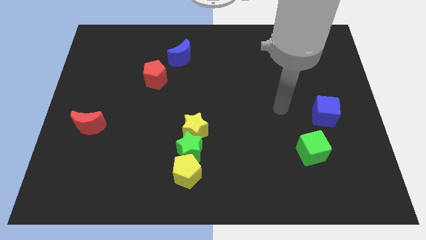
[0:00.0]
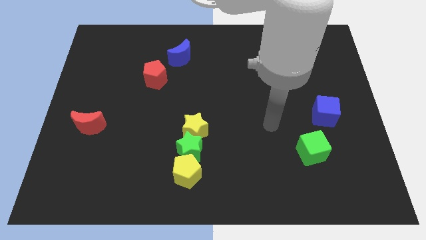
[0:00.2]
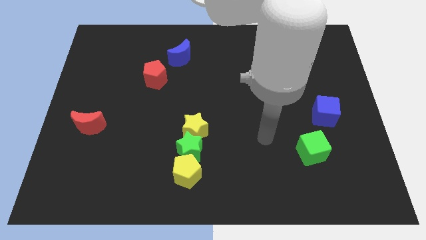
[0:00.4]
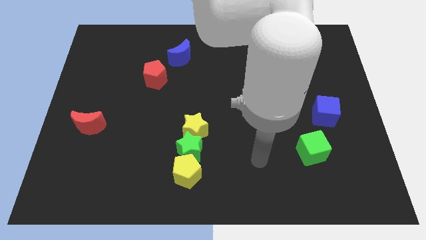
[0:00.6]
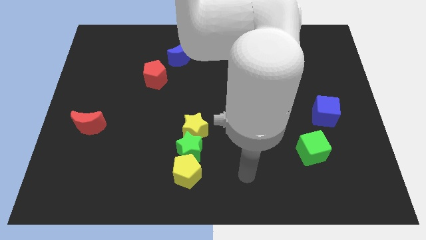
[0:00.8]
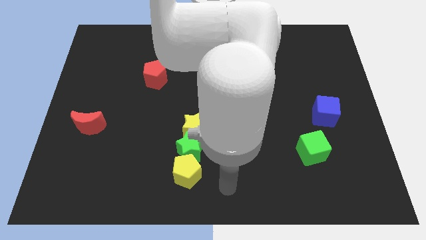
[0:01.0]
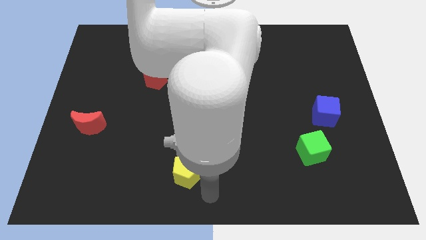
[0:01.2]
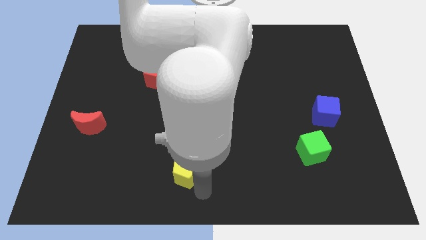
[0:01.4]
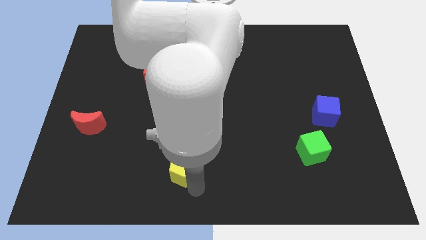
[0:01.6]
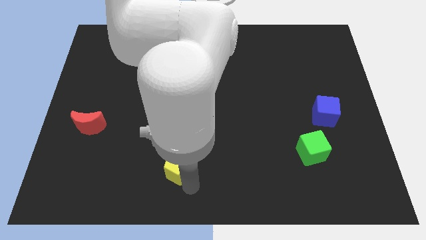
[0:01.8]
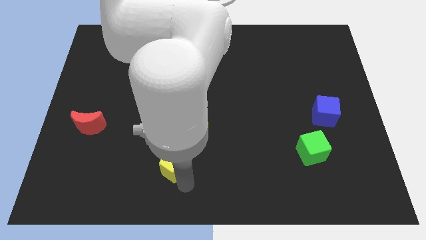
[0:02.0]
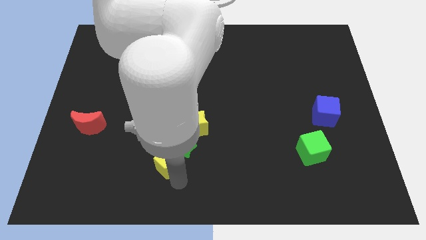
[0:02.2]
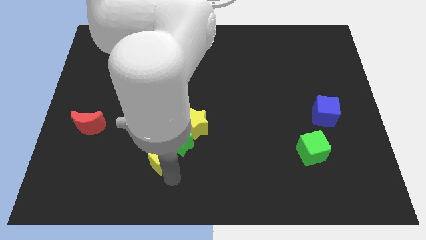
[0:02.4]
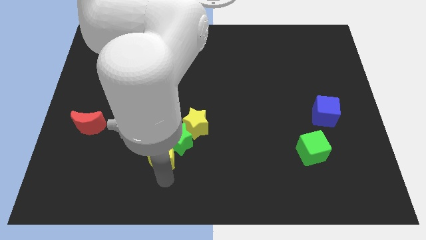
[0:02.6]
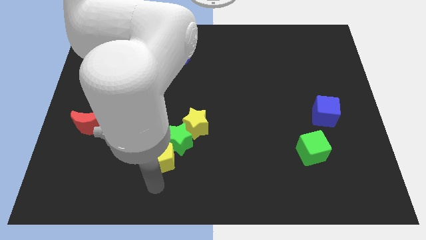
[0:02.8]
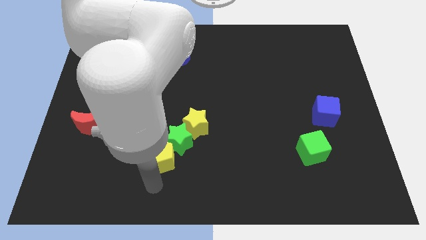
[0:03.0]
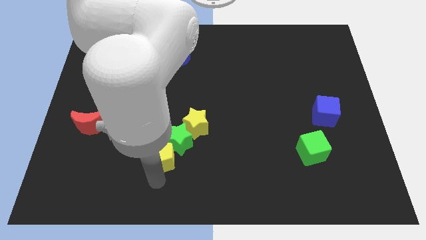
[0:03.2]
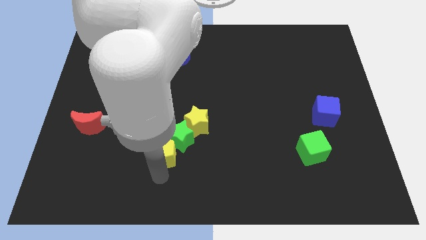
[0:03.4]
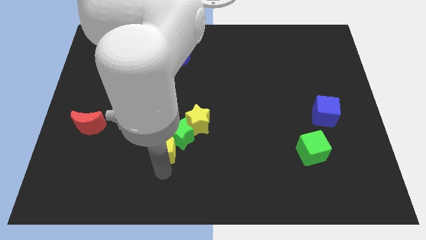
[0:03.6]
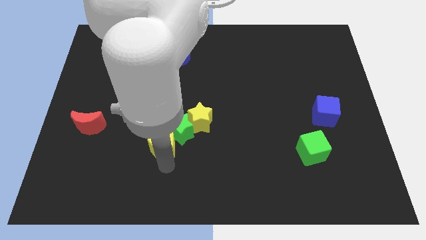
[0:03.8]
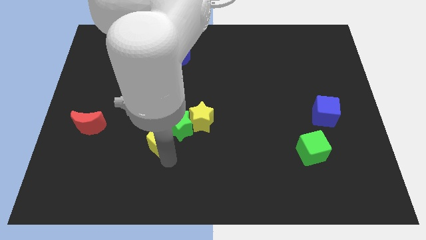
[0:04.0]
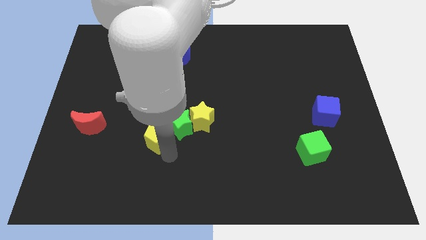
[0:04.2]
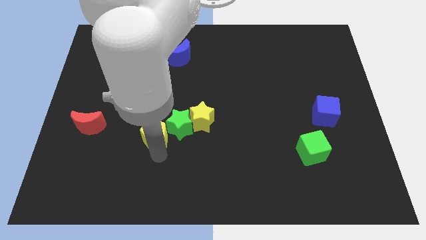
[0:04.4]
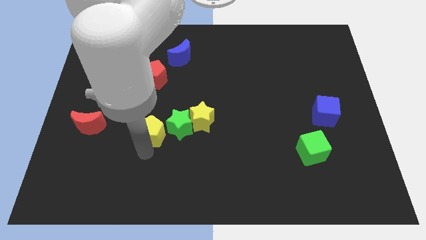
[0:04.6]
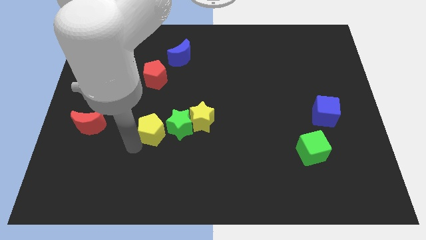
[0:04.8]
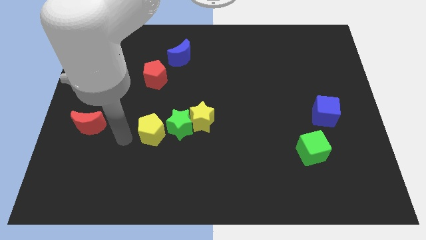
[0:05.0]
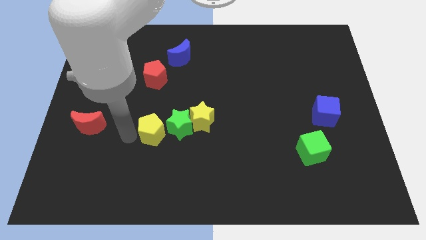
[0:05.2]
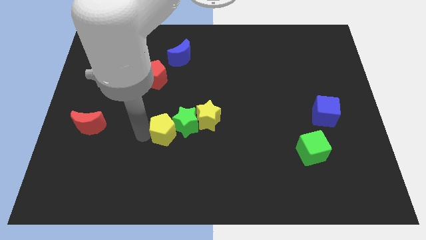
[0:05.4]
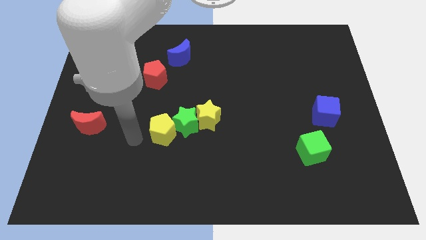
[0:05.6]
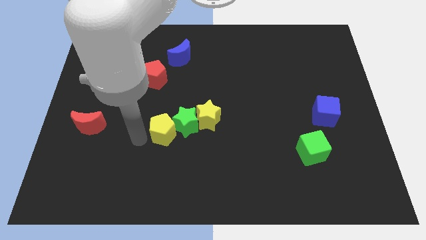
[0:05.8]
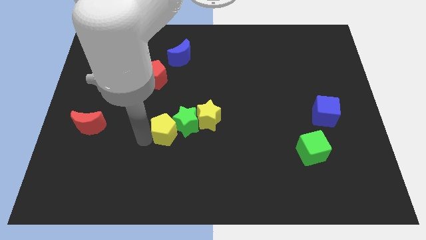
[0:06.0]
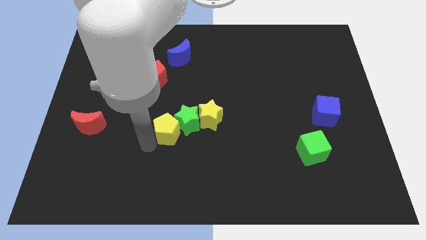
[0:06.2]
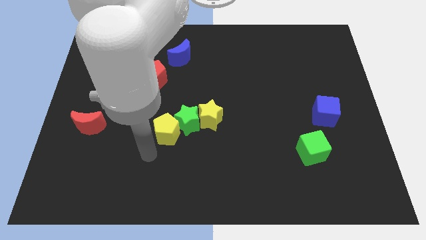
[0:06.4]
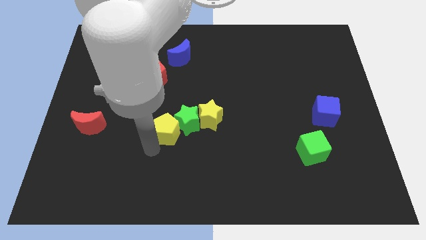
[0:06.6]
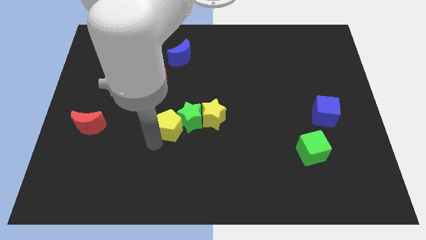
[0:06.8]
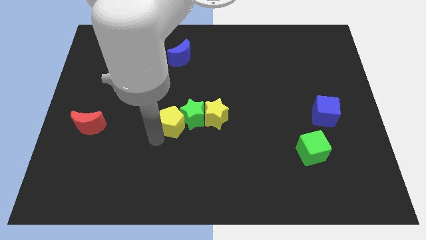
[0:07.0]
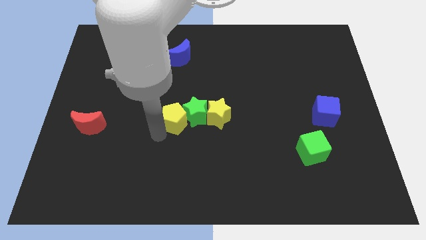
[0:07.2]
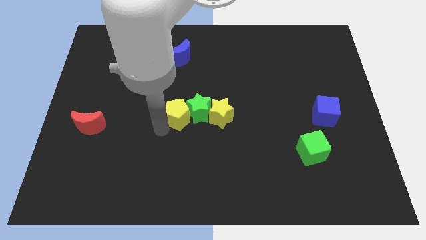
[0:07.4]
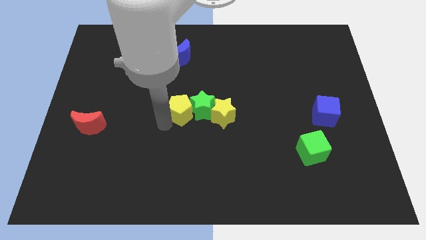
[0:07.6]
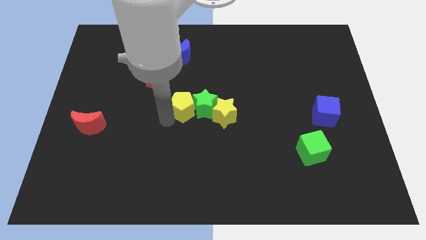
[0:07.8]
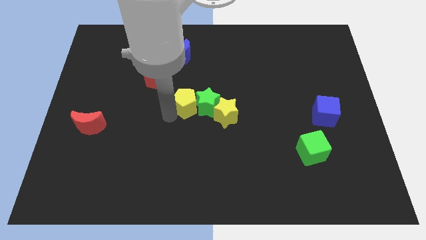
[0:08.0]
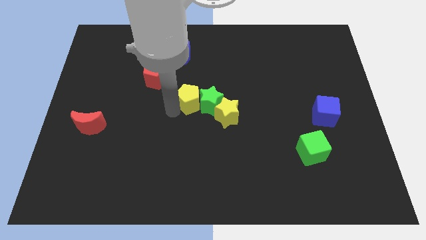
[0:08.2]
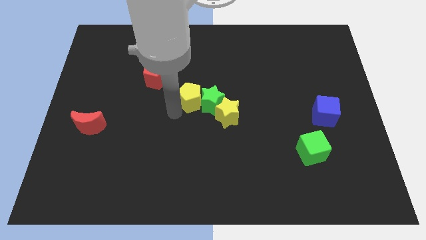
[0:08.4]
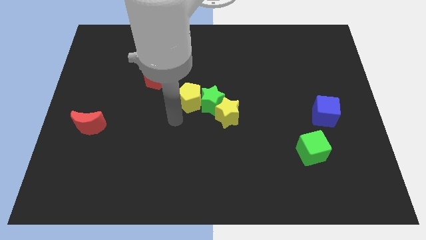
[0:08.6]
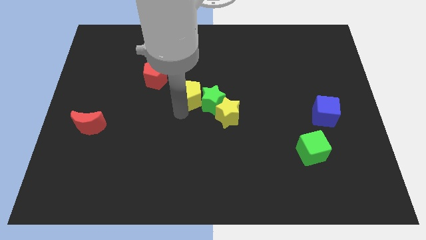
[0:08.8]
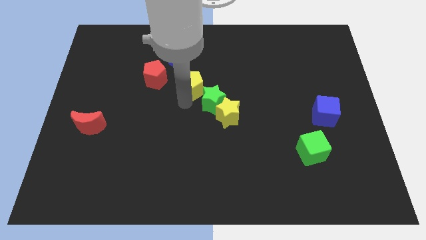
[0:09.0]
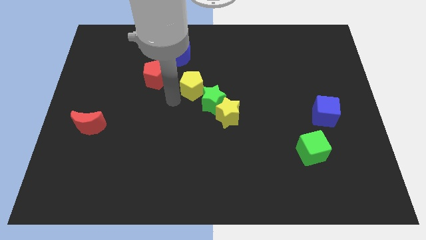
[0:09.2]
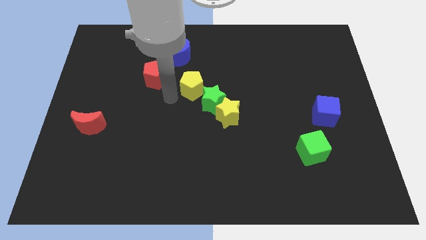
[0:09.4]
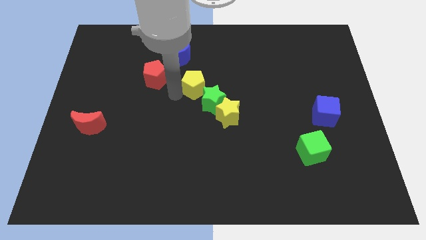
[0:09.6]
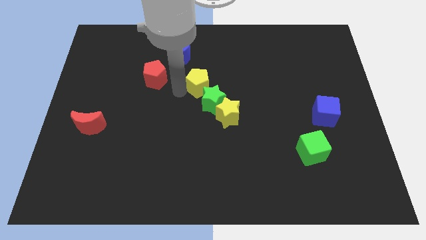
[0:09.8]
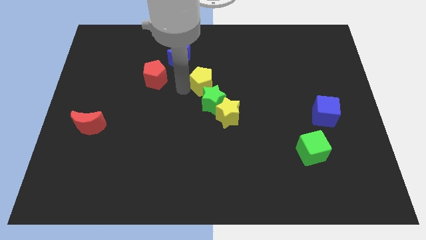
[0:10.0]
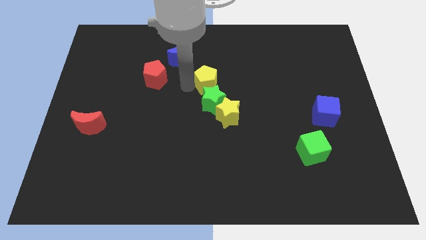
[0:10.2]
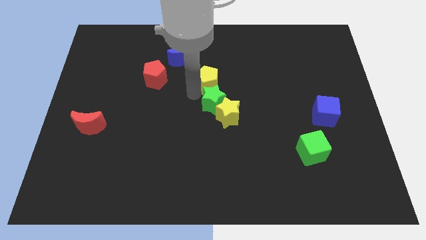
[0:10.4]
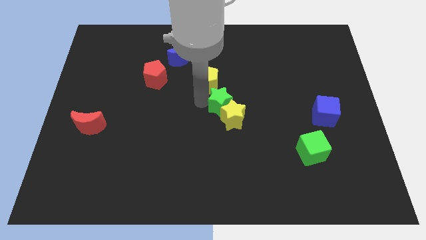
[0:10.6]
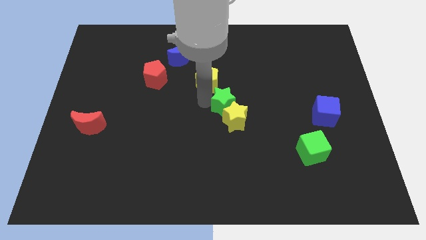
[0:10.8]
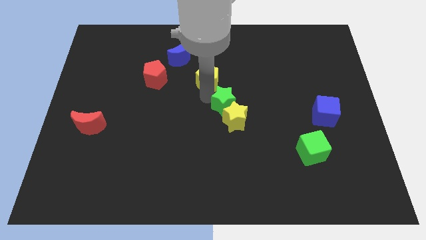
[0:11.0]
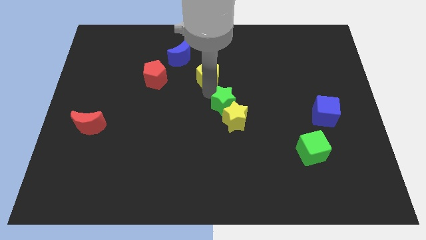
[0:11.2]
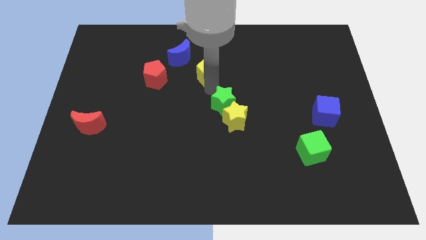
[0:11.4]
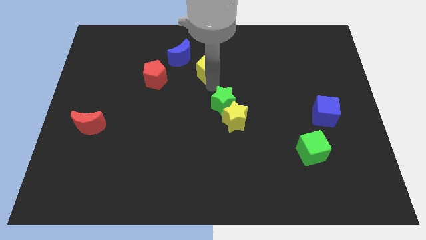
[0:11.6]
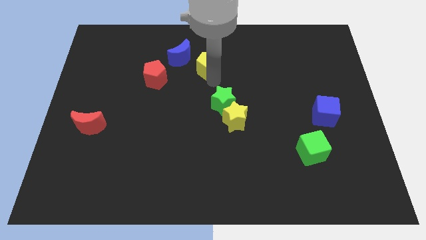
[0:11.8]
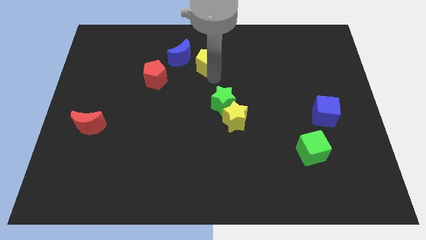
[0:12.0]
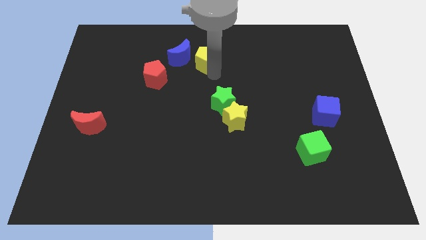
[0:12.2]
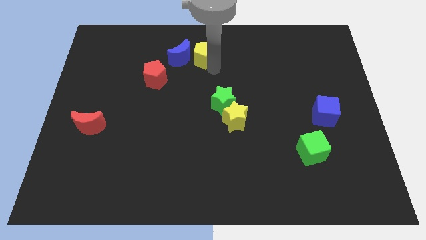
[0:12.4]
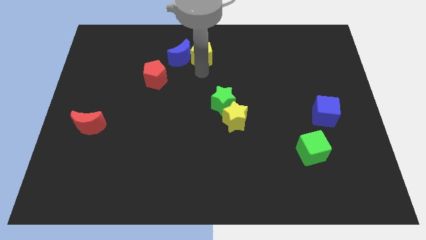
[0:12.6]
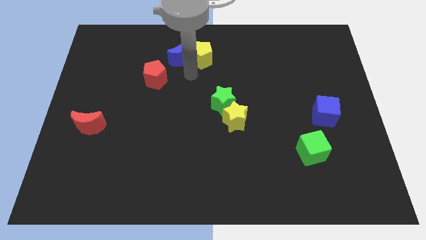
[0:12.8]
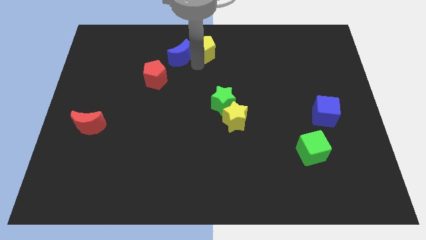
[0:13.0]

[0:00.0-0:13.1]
move the yellow pentagon to the top side

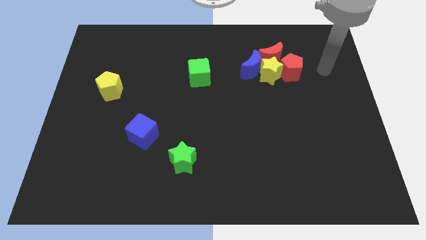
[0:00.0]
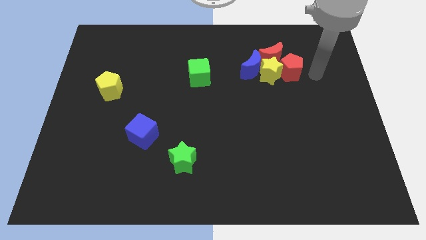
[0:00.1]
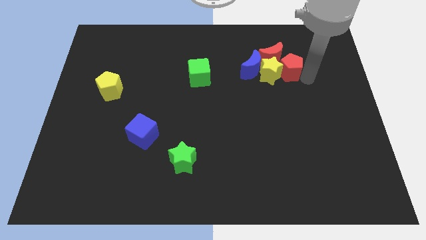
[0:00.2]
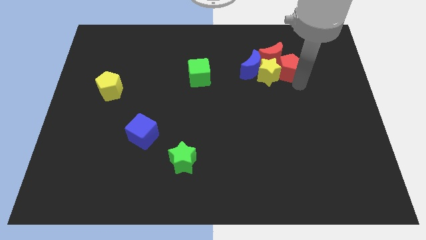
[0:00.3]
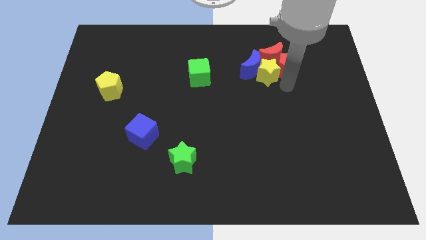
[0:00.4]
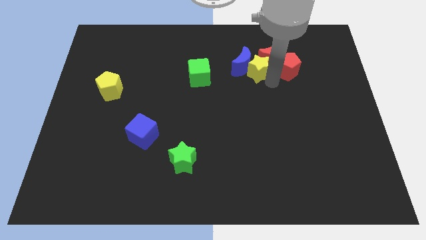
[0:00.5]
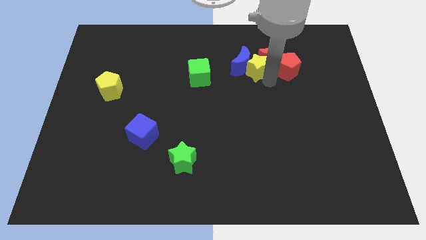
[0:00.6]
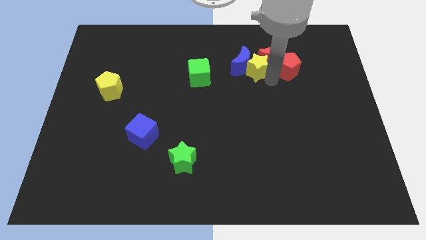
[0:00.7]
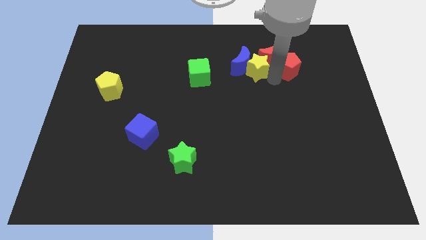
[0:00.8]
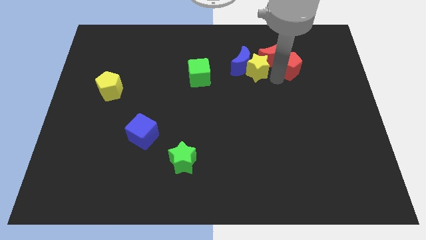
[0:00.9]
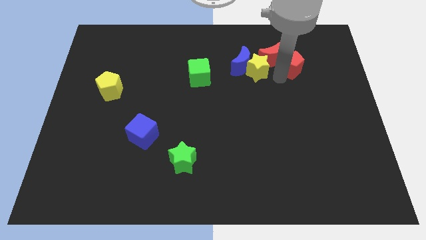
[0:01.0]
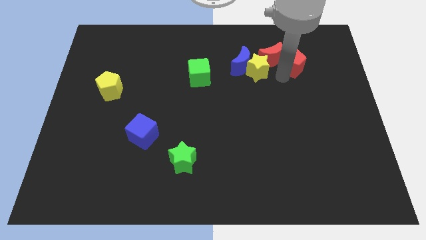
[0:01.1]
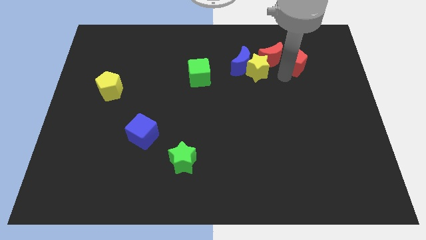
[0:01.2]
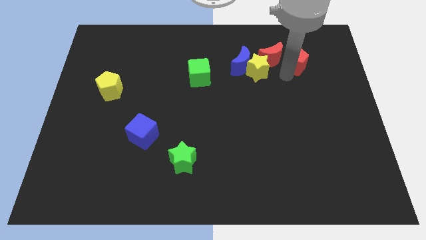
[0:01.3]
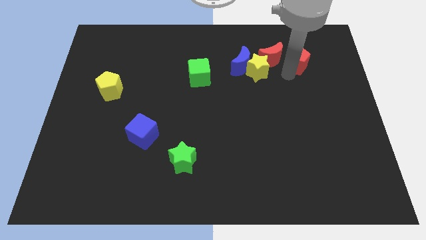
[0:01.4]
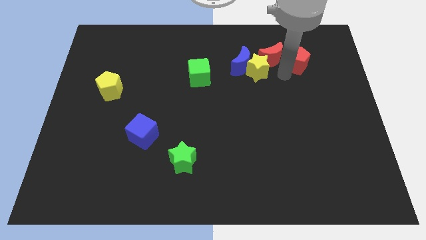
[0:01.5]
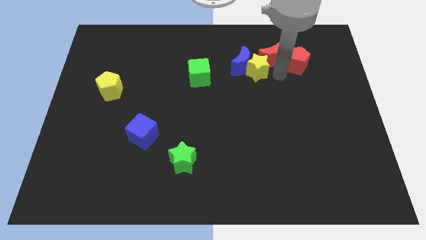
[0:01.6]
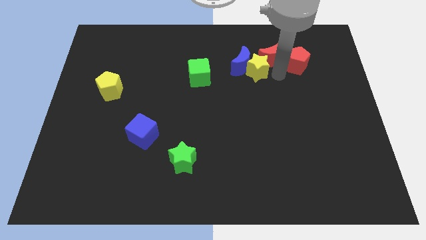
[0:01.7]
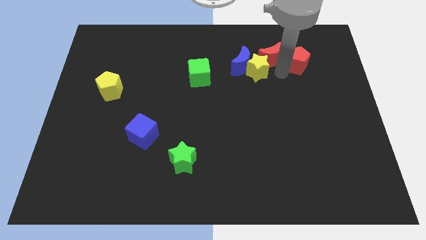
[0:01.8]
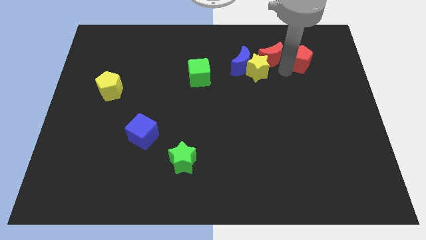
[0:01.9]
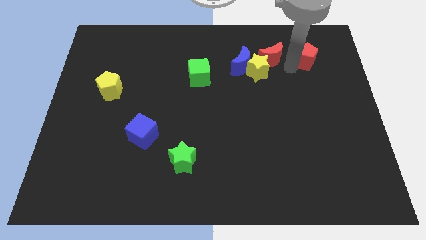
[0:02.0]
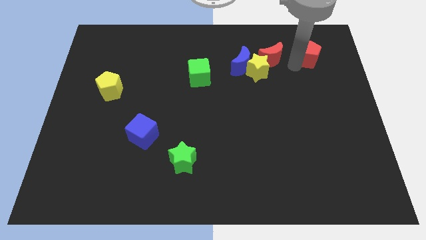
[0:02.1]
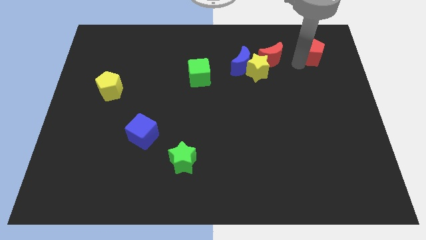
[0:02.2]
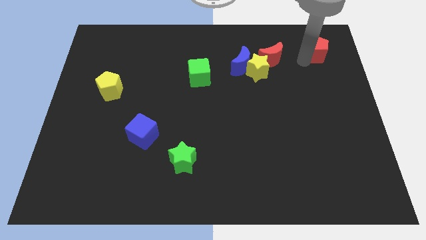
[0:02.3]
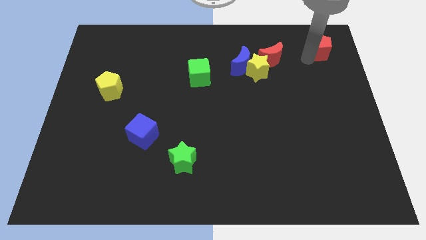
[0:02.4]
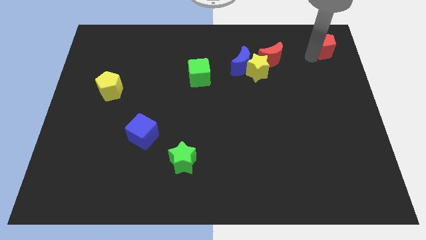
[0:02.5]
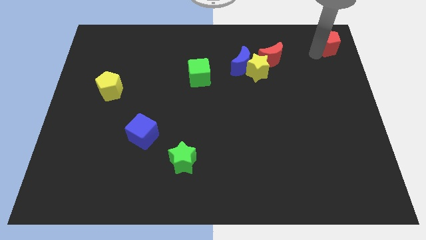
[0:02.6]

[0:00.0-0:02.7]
slide the red pentagon to the top right of the board
